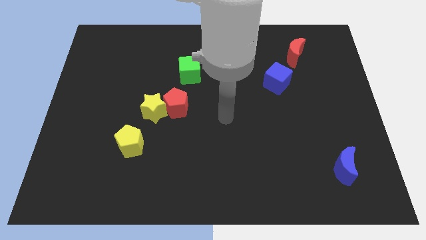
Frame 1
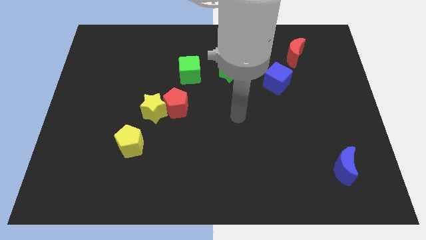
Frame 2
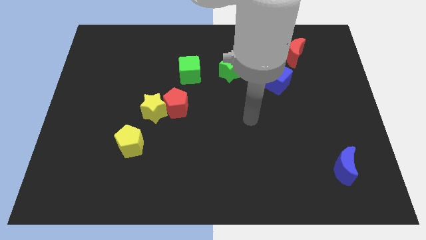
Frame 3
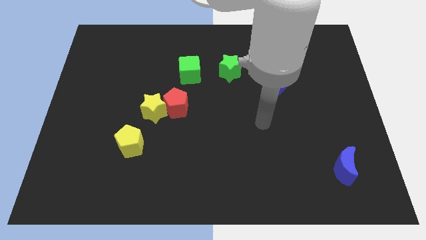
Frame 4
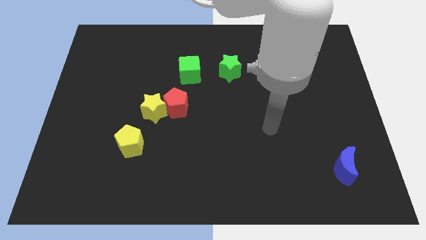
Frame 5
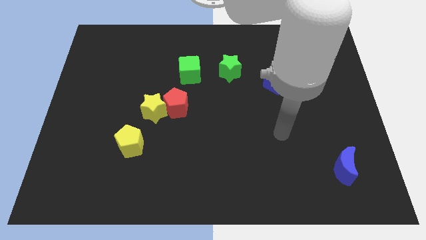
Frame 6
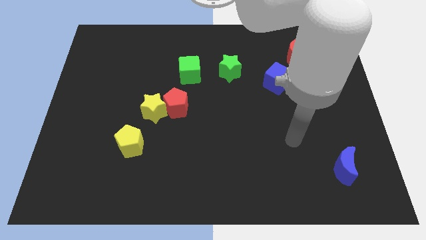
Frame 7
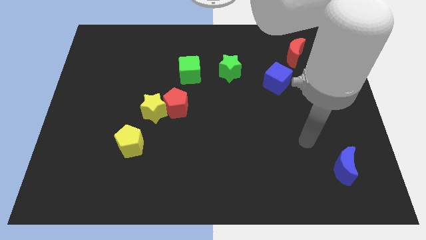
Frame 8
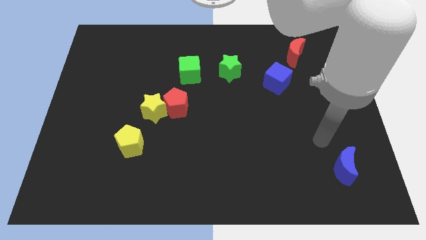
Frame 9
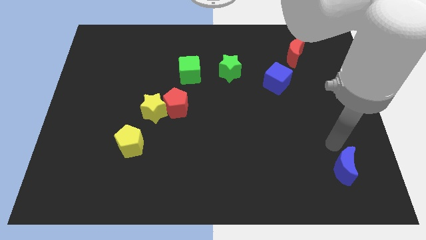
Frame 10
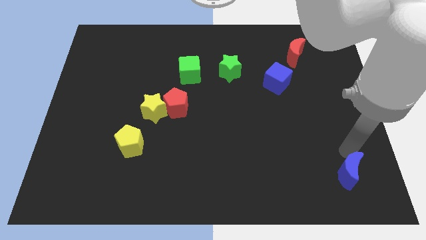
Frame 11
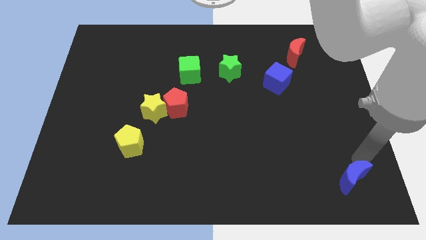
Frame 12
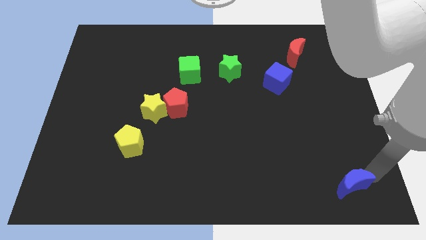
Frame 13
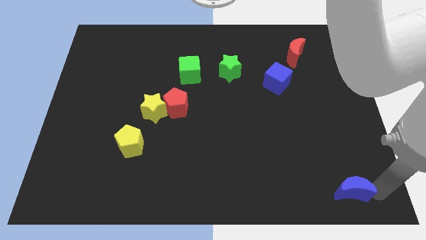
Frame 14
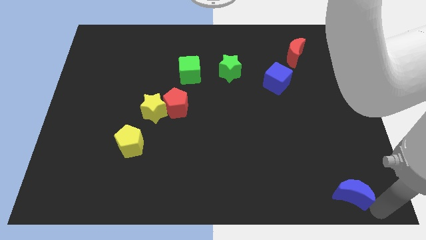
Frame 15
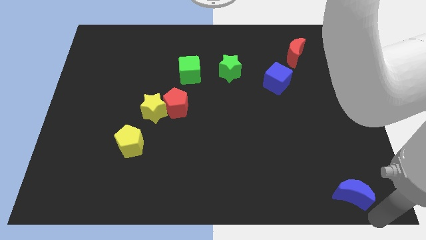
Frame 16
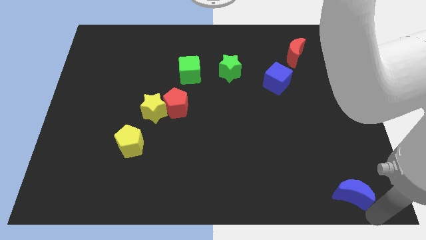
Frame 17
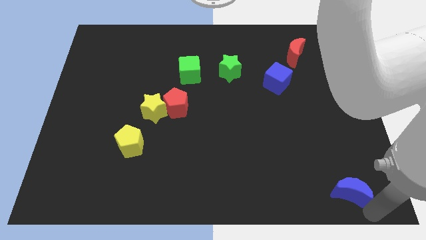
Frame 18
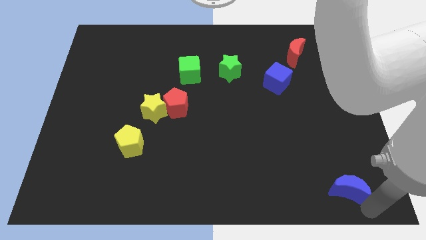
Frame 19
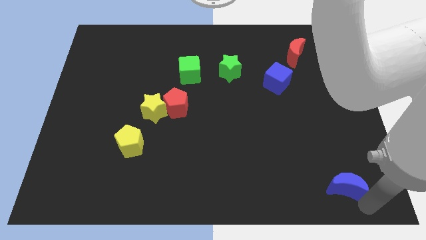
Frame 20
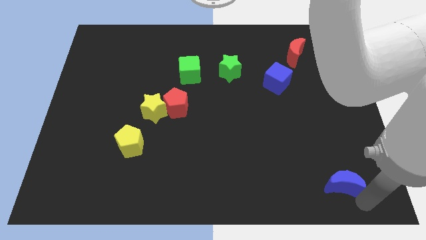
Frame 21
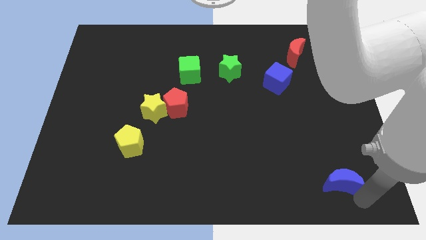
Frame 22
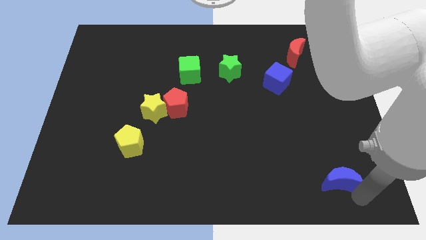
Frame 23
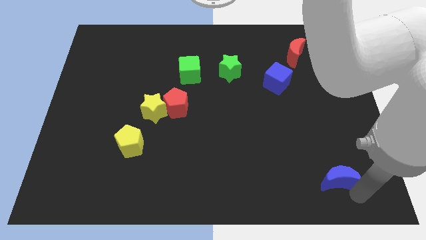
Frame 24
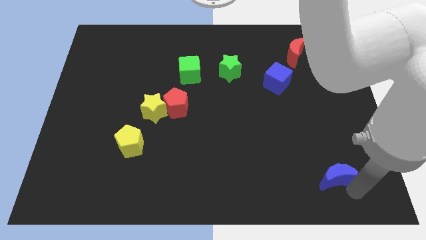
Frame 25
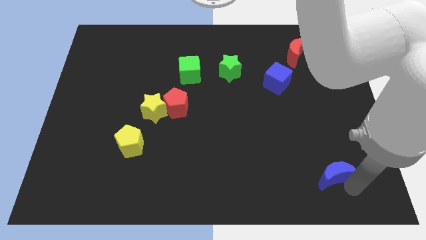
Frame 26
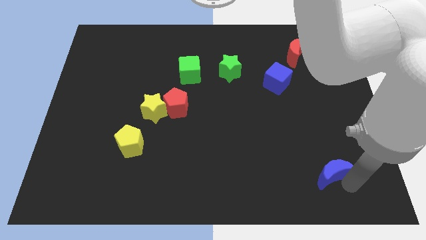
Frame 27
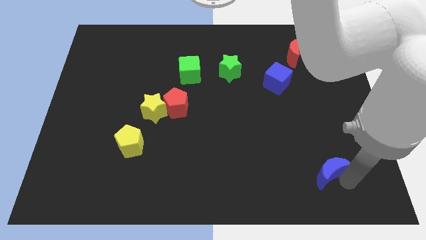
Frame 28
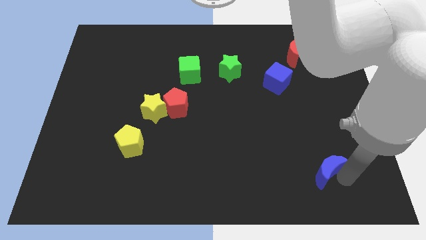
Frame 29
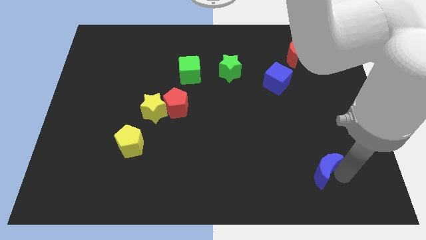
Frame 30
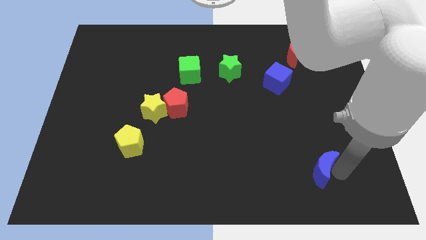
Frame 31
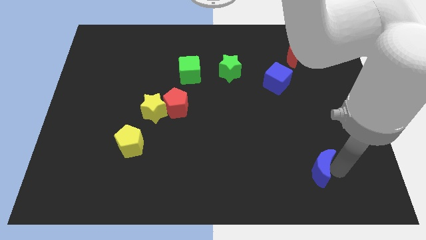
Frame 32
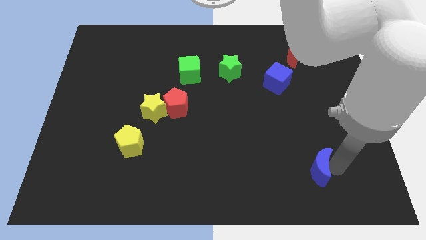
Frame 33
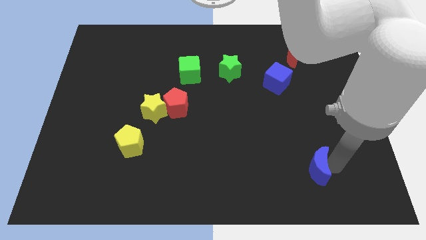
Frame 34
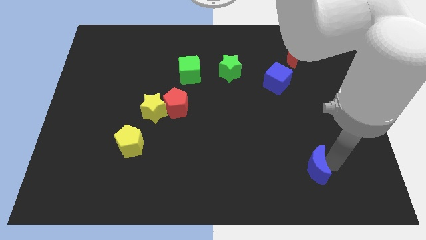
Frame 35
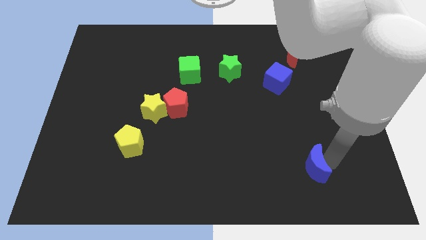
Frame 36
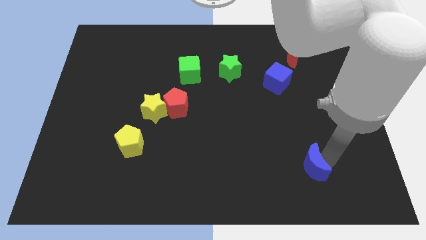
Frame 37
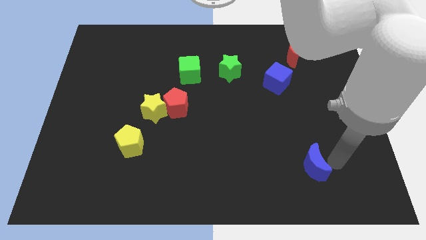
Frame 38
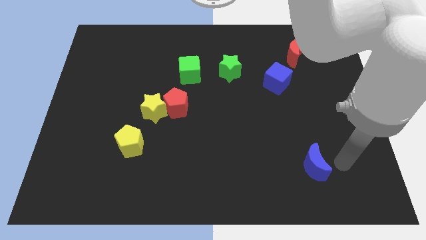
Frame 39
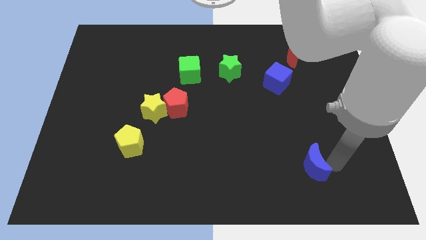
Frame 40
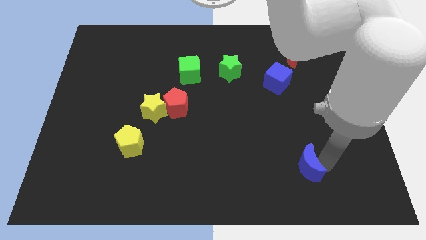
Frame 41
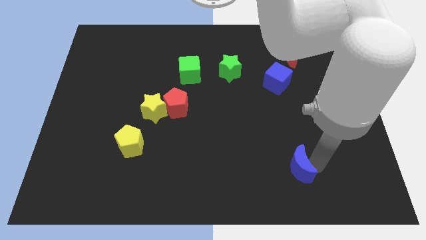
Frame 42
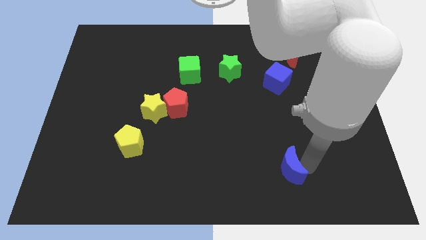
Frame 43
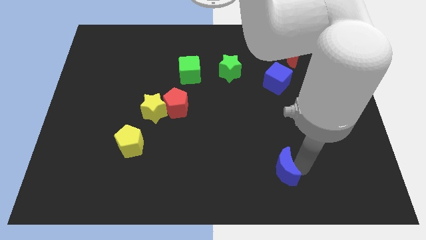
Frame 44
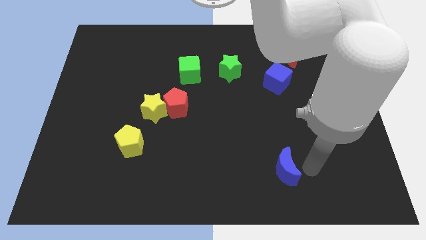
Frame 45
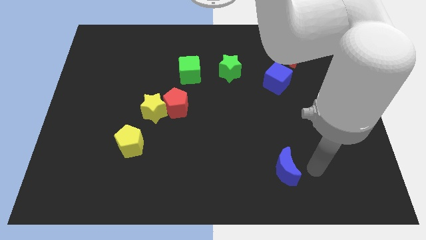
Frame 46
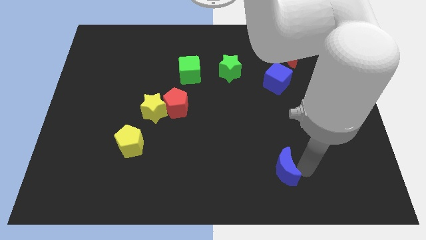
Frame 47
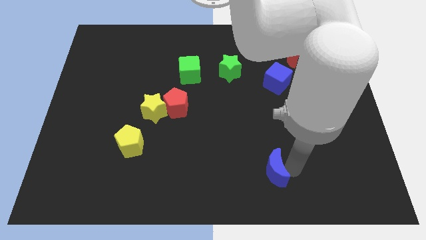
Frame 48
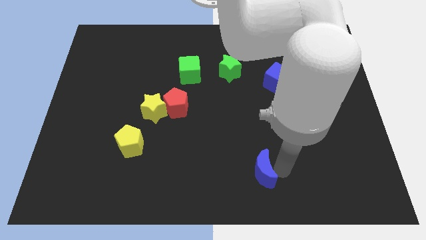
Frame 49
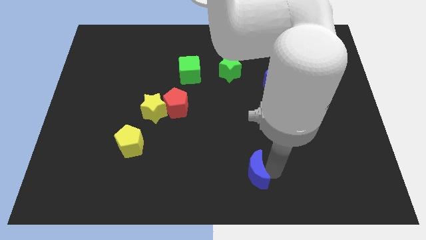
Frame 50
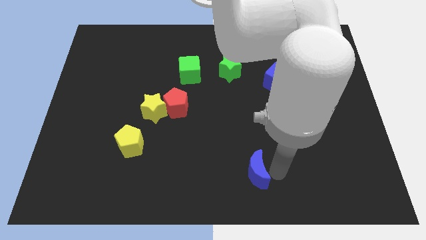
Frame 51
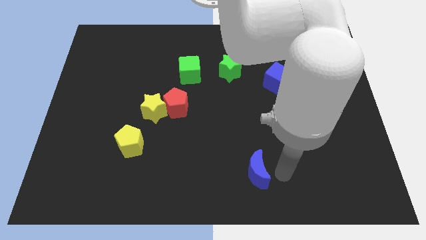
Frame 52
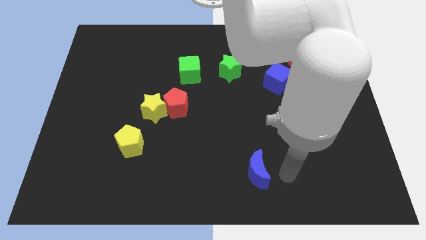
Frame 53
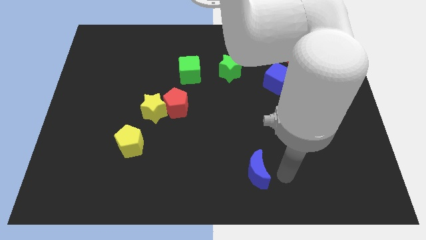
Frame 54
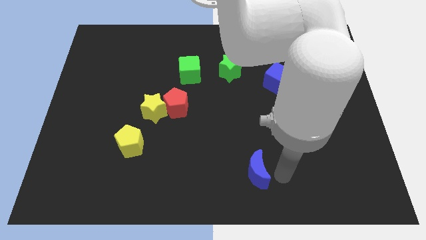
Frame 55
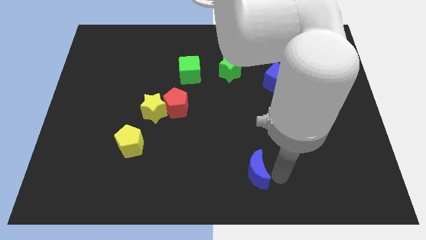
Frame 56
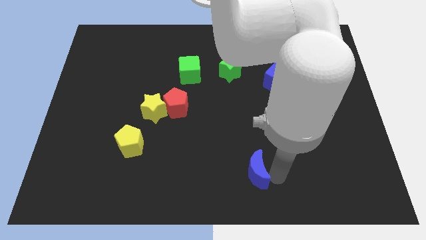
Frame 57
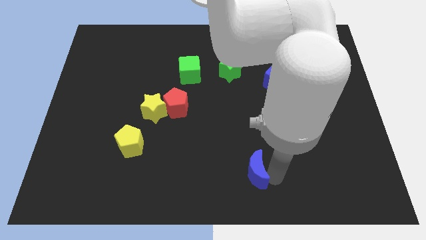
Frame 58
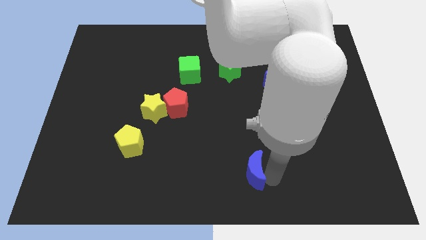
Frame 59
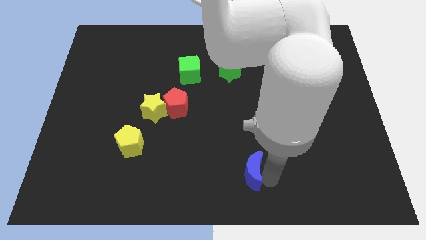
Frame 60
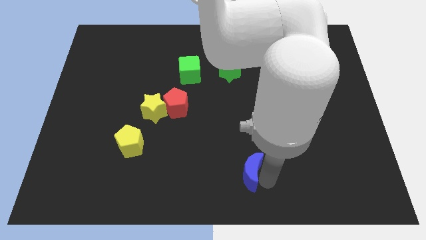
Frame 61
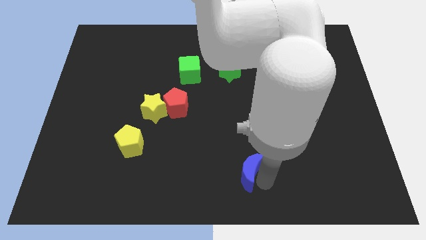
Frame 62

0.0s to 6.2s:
move the blue moon left

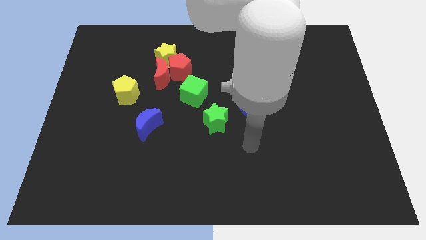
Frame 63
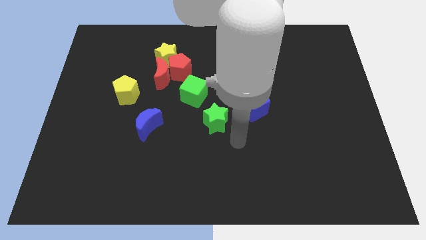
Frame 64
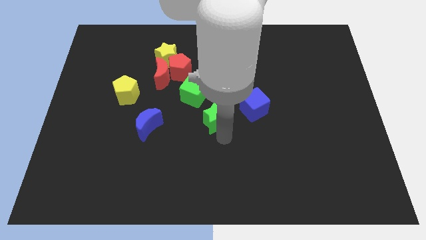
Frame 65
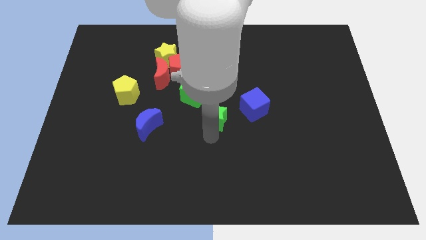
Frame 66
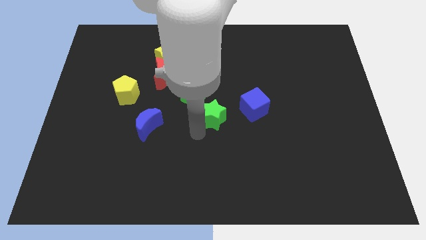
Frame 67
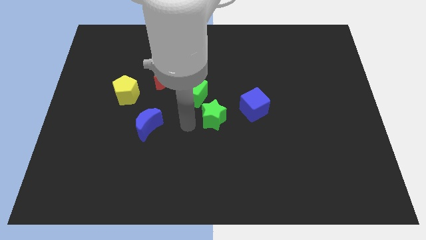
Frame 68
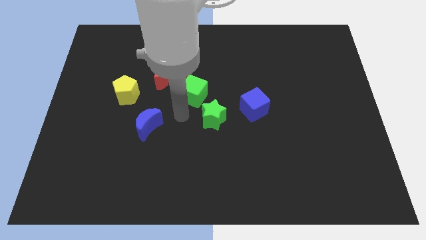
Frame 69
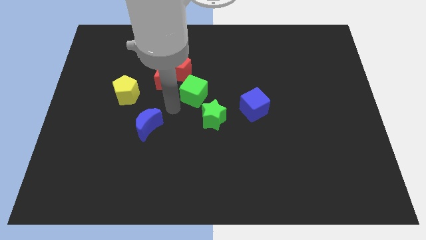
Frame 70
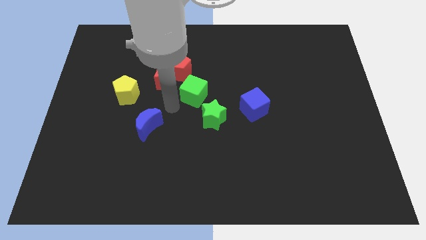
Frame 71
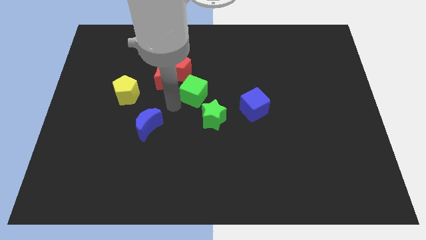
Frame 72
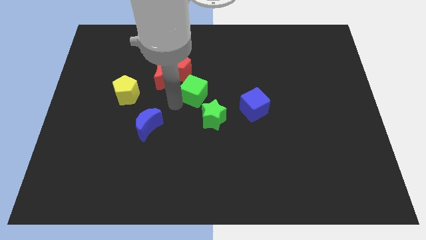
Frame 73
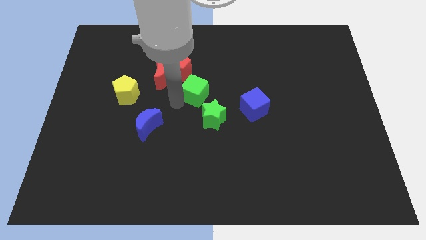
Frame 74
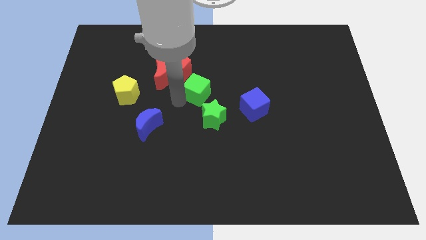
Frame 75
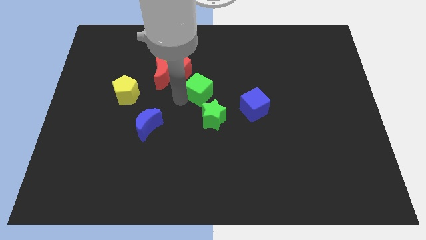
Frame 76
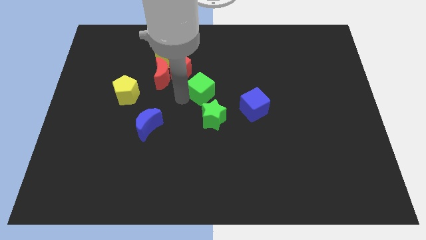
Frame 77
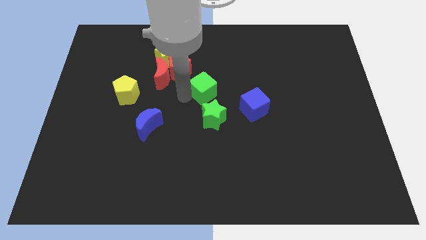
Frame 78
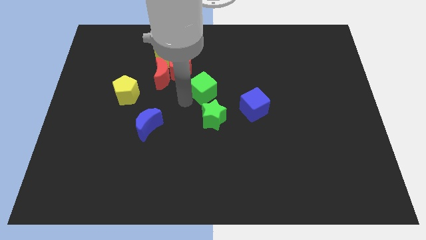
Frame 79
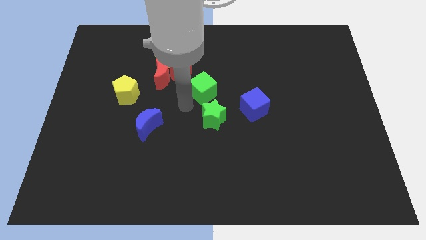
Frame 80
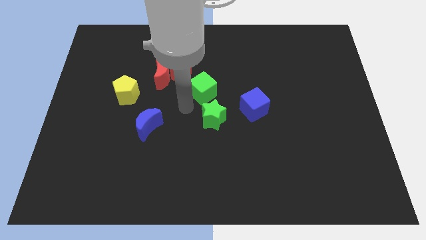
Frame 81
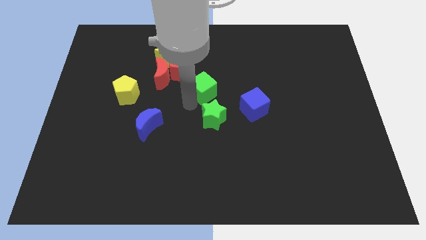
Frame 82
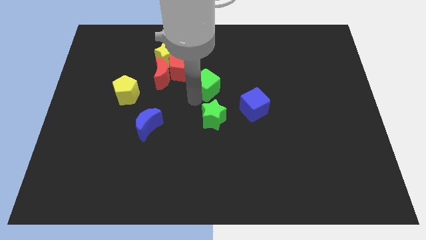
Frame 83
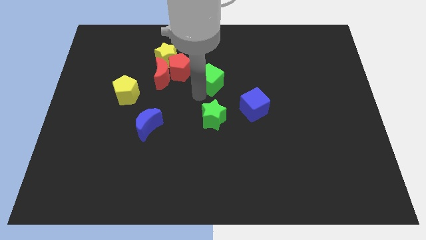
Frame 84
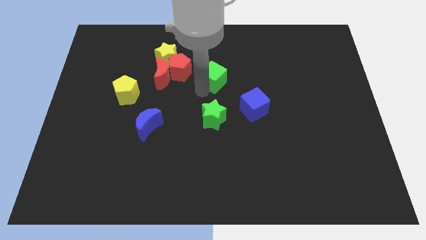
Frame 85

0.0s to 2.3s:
push the green cube diagonally upwards and right slightly
